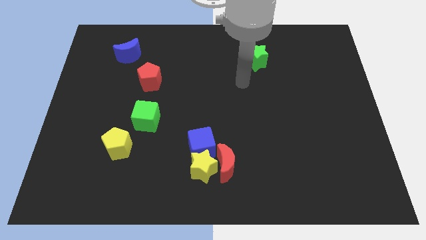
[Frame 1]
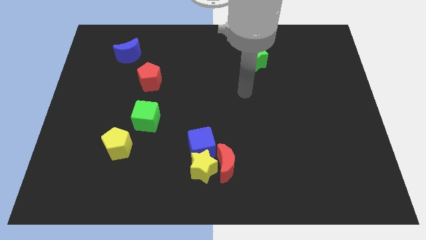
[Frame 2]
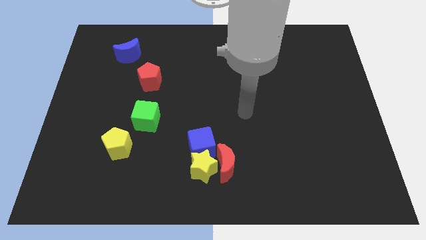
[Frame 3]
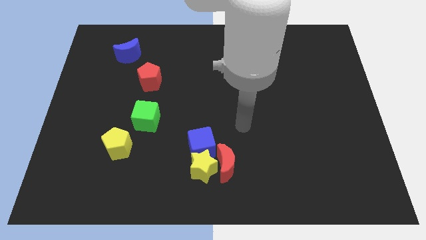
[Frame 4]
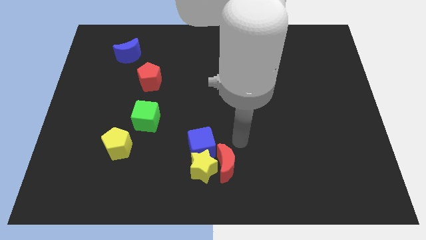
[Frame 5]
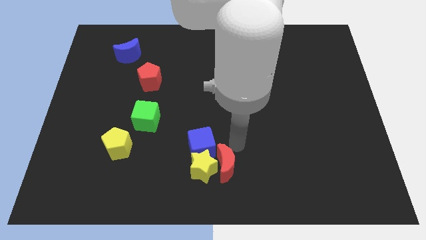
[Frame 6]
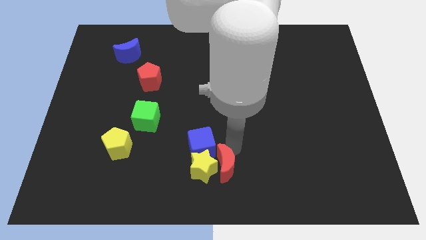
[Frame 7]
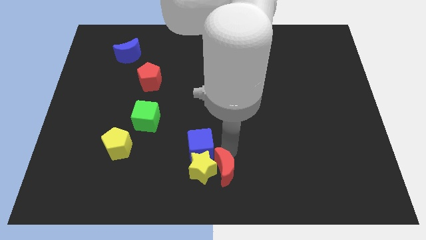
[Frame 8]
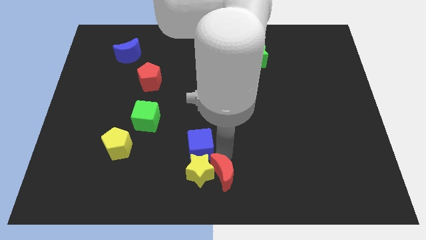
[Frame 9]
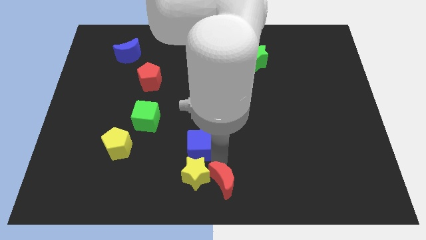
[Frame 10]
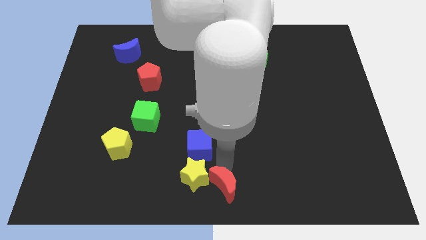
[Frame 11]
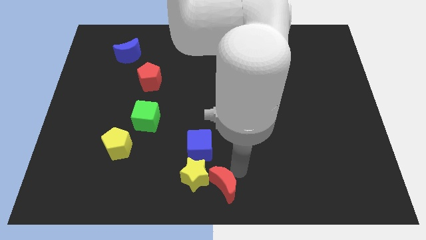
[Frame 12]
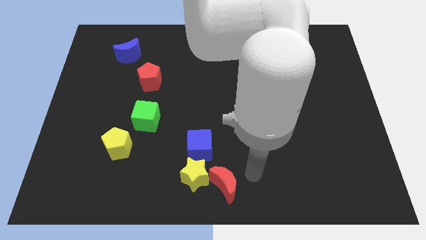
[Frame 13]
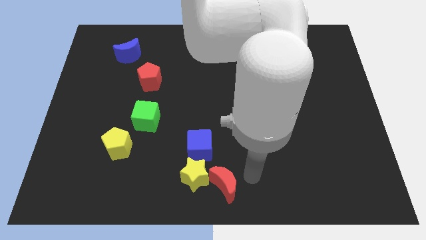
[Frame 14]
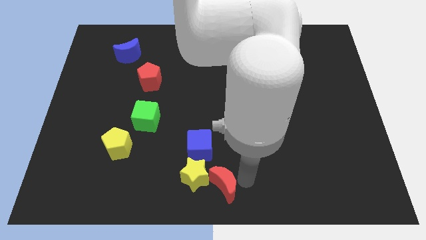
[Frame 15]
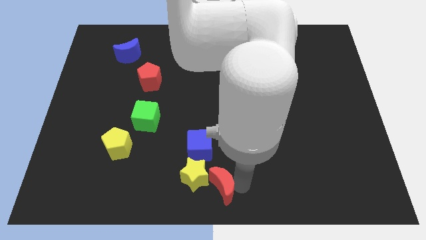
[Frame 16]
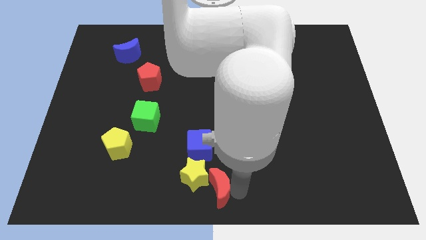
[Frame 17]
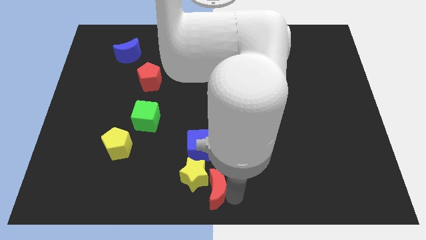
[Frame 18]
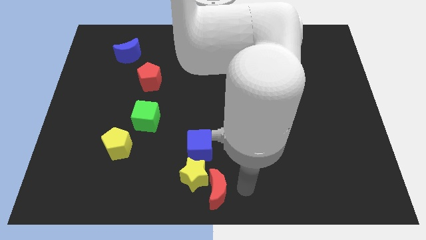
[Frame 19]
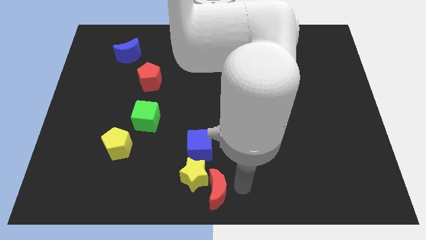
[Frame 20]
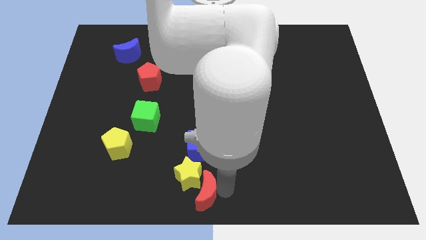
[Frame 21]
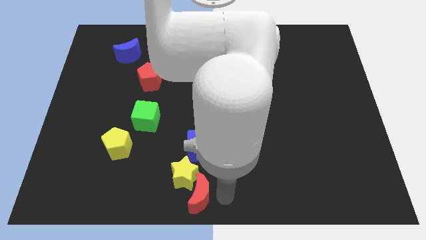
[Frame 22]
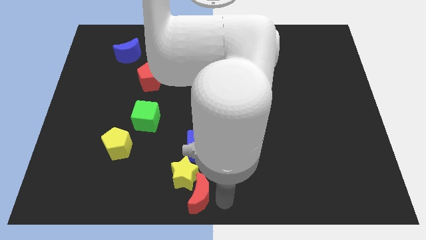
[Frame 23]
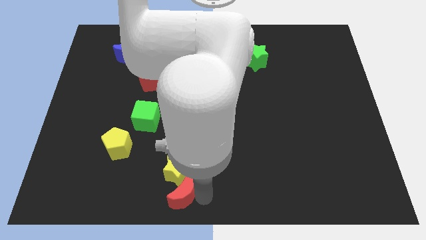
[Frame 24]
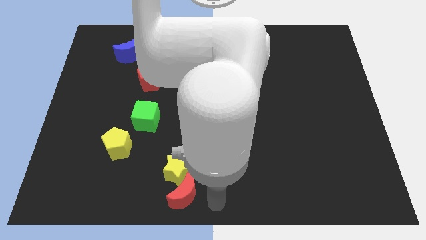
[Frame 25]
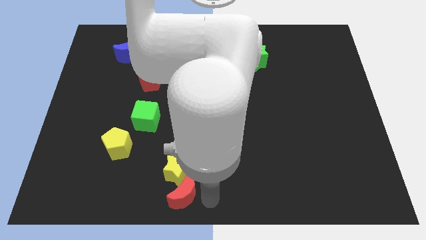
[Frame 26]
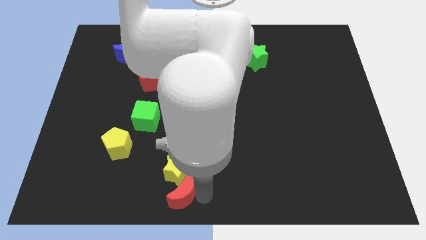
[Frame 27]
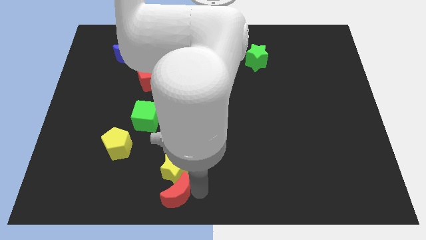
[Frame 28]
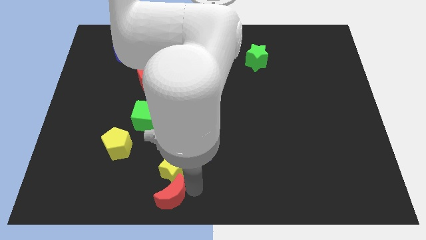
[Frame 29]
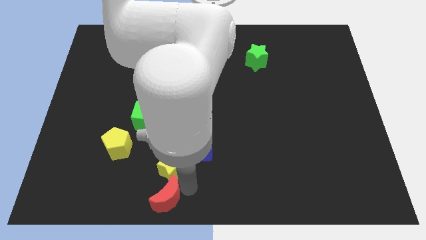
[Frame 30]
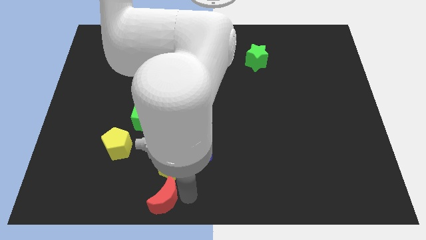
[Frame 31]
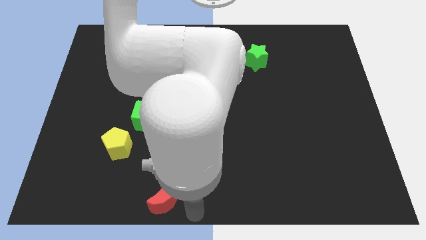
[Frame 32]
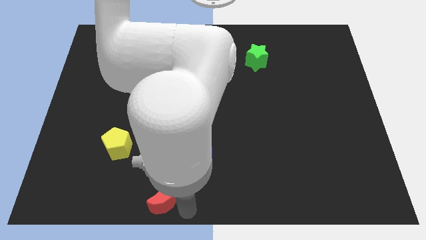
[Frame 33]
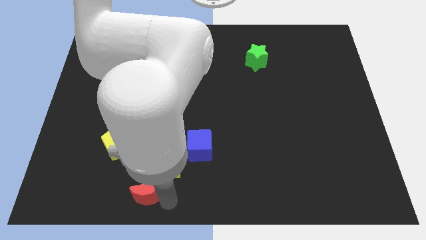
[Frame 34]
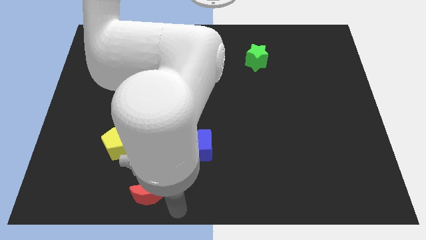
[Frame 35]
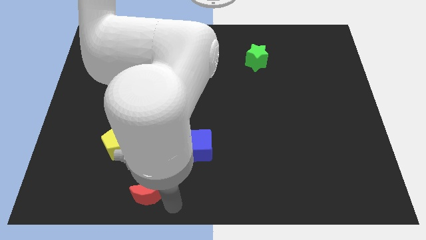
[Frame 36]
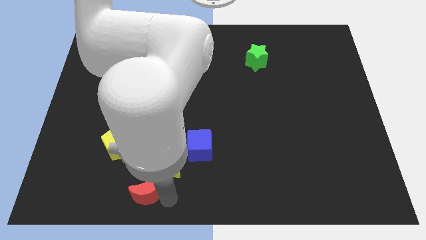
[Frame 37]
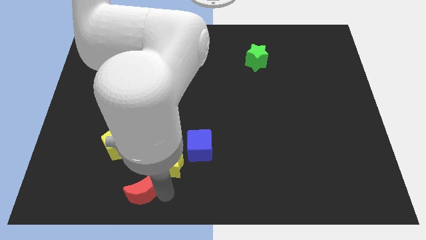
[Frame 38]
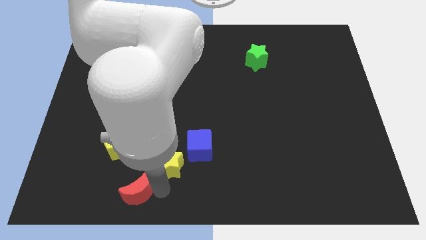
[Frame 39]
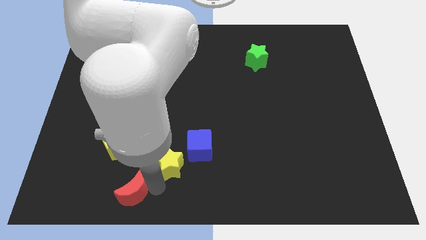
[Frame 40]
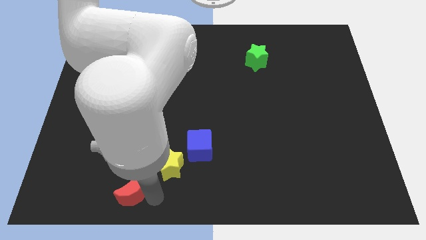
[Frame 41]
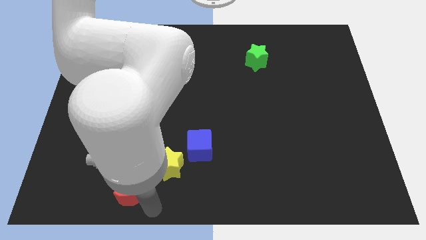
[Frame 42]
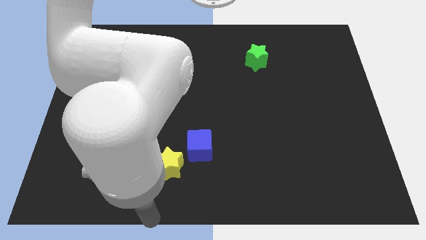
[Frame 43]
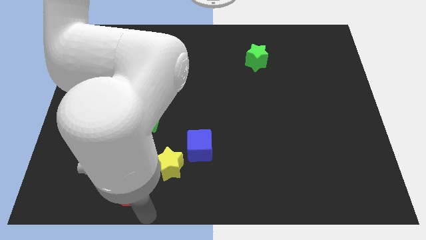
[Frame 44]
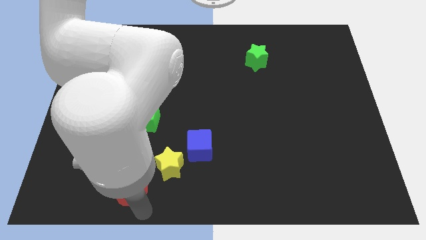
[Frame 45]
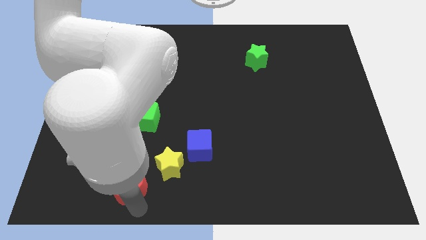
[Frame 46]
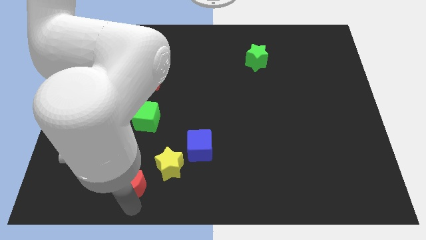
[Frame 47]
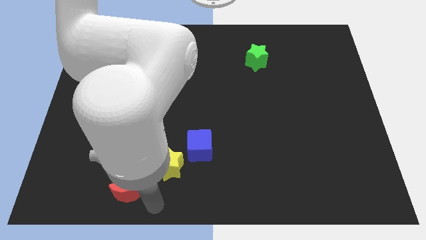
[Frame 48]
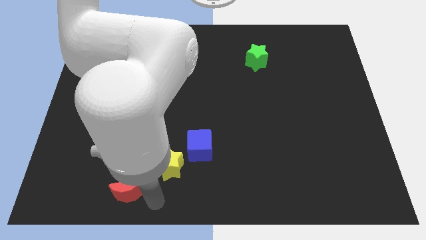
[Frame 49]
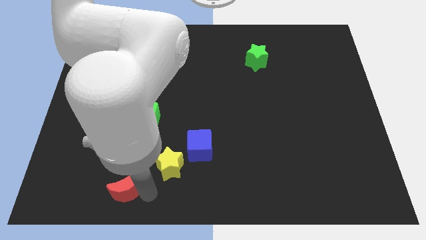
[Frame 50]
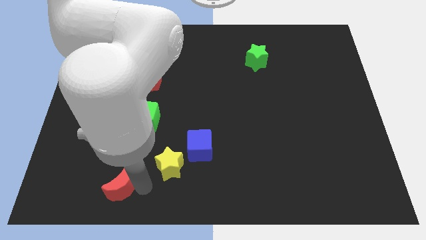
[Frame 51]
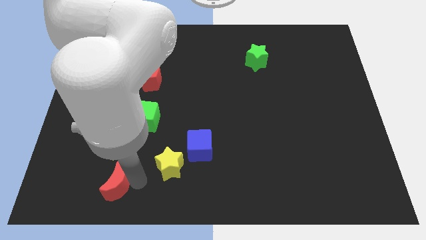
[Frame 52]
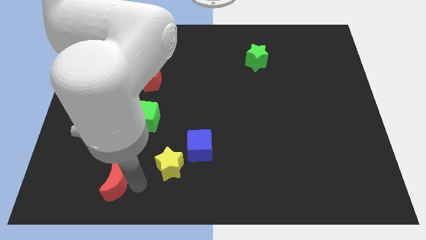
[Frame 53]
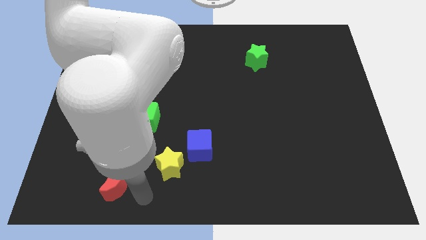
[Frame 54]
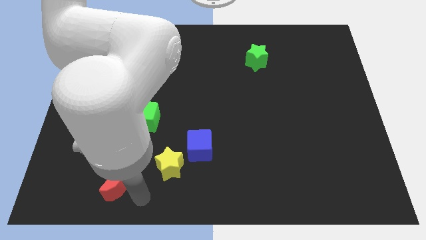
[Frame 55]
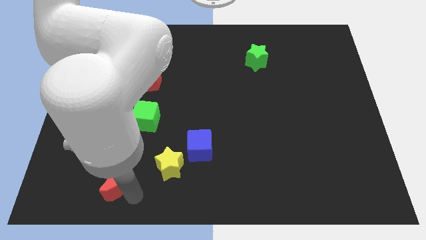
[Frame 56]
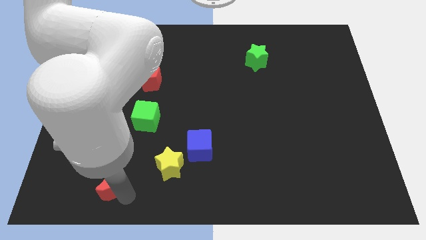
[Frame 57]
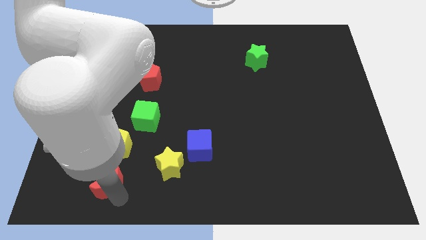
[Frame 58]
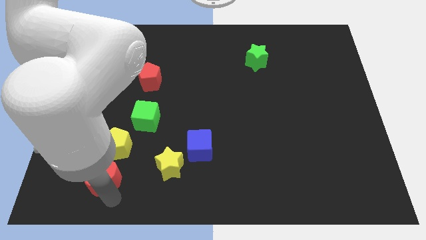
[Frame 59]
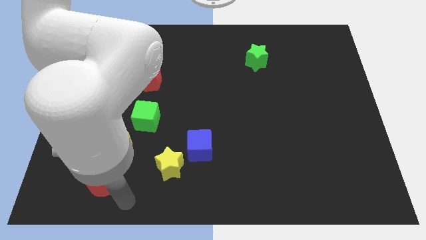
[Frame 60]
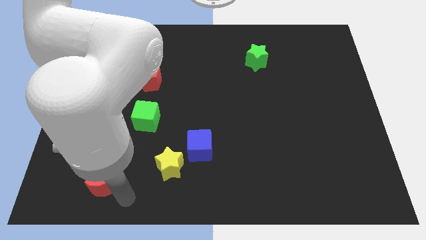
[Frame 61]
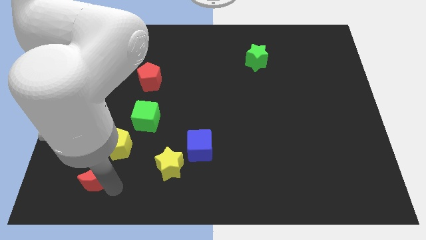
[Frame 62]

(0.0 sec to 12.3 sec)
push the red moon to the bottom left of the yellow pentagon
